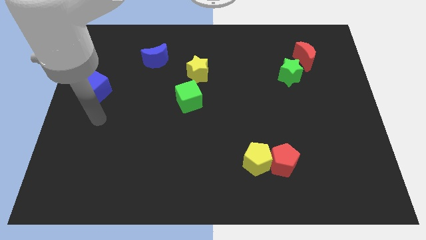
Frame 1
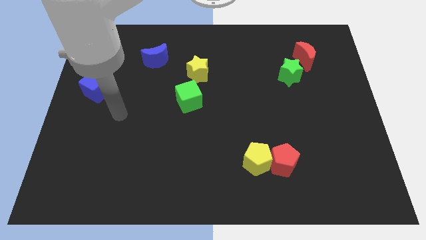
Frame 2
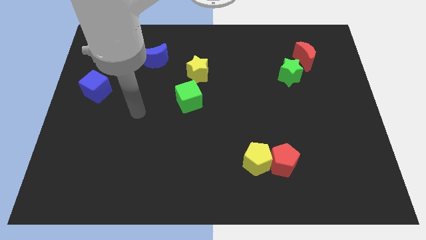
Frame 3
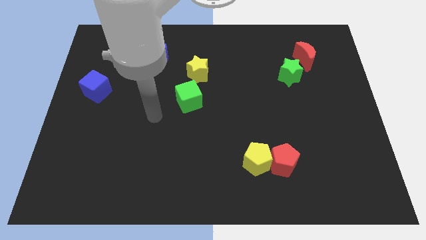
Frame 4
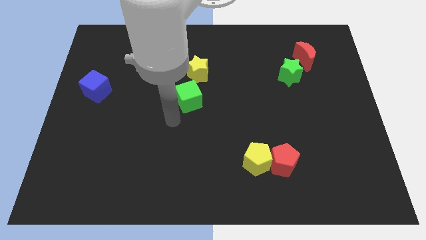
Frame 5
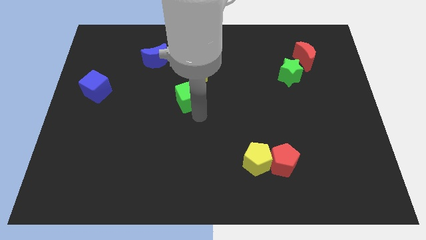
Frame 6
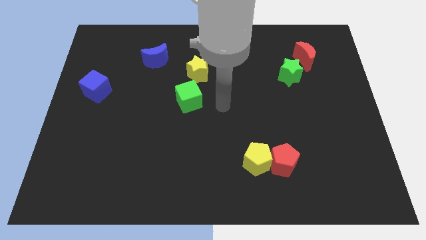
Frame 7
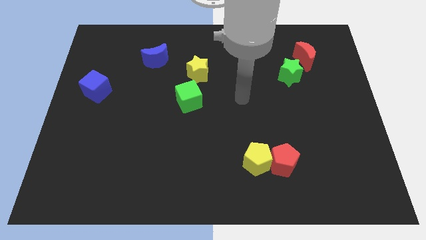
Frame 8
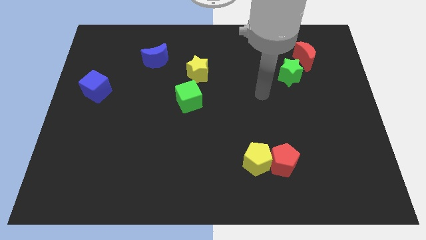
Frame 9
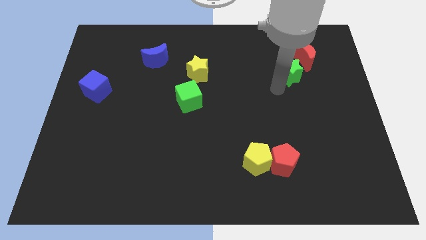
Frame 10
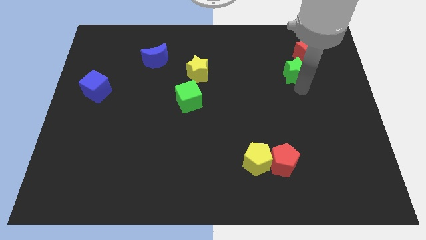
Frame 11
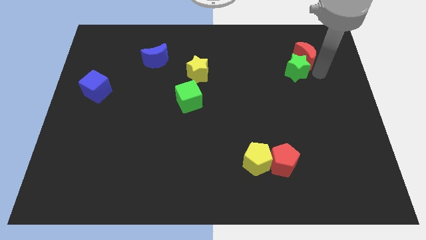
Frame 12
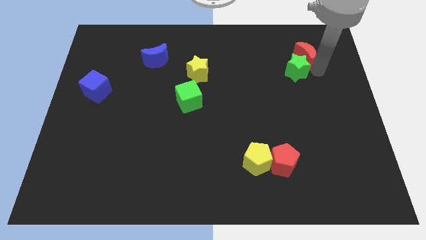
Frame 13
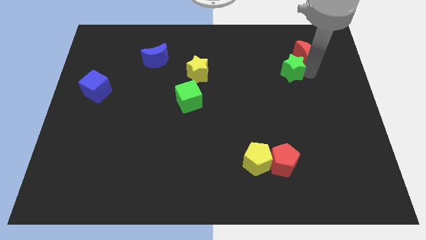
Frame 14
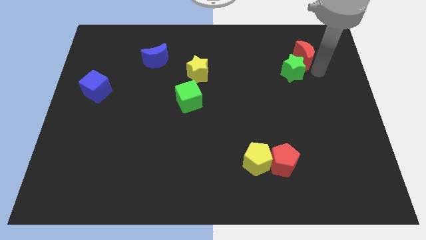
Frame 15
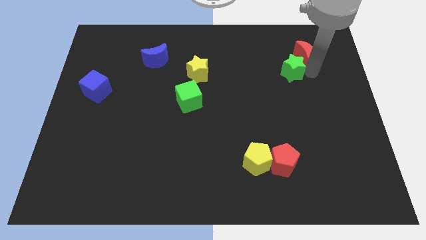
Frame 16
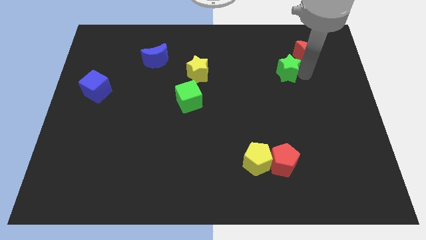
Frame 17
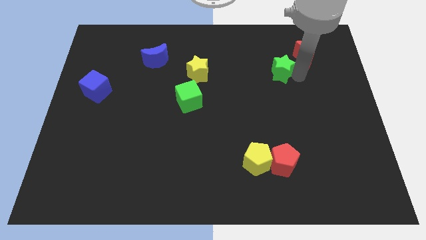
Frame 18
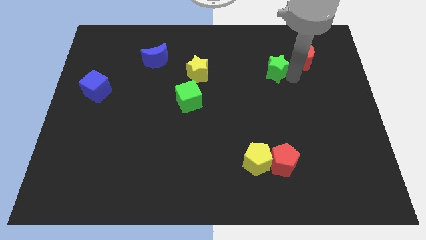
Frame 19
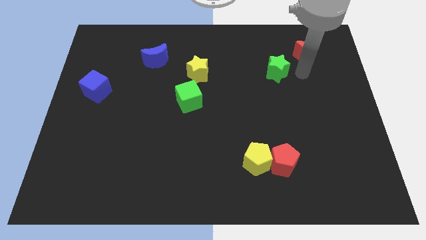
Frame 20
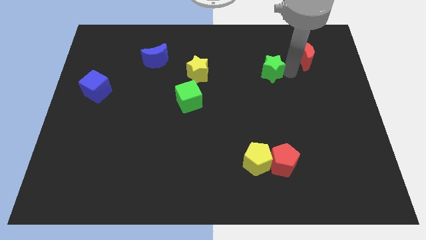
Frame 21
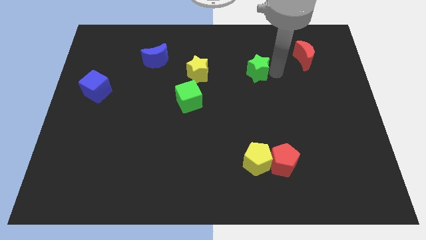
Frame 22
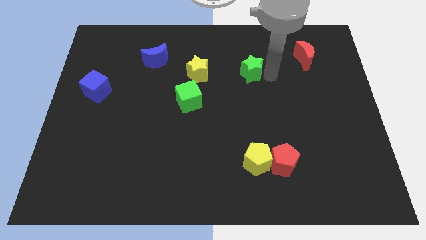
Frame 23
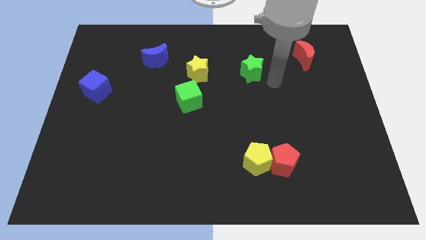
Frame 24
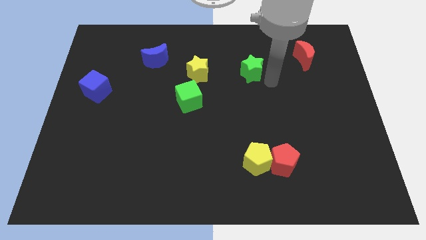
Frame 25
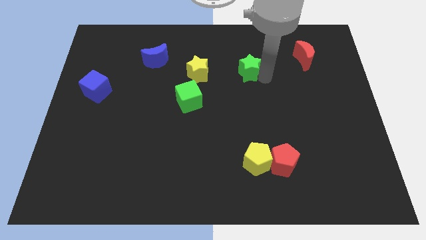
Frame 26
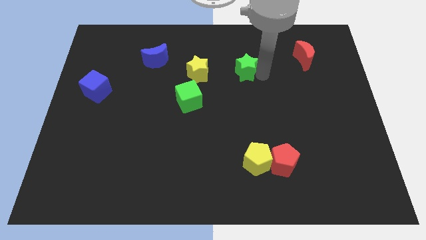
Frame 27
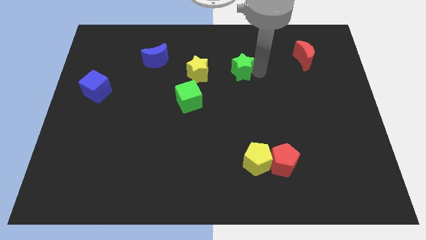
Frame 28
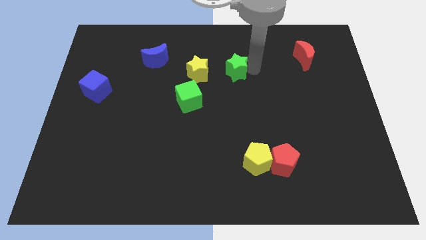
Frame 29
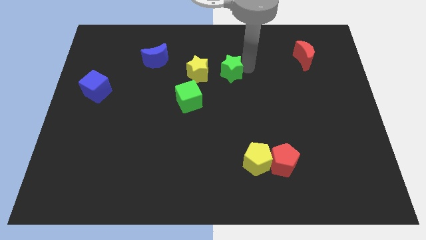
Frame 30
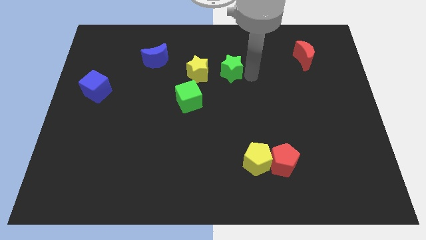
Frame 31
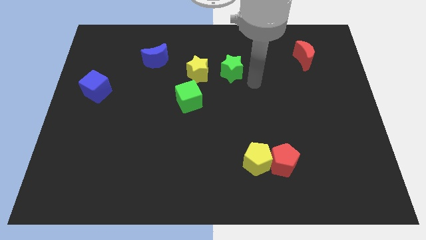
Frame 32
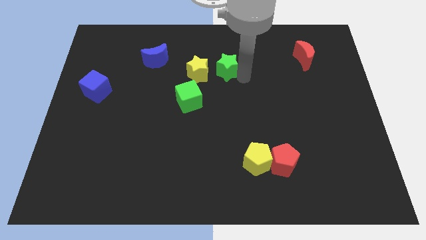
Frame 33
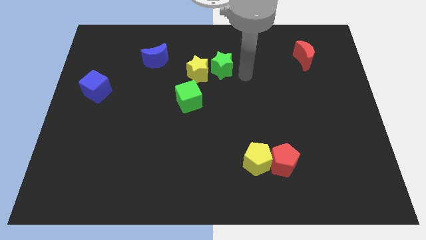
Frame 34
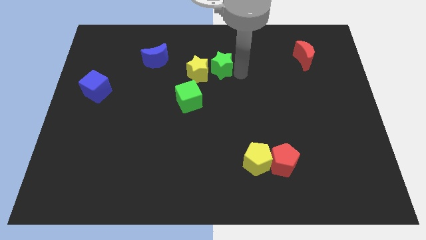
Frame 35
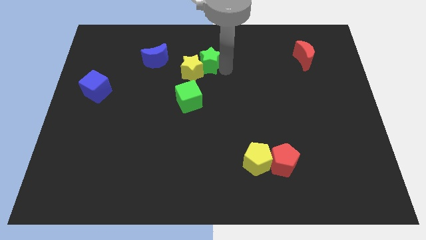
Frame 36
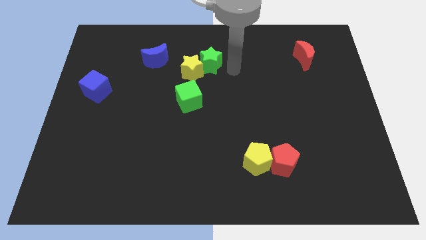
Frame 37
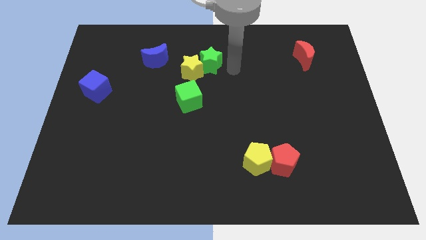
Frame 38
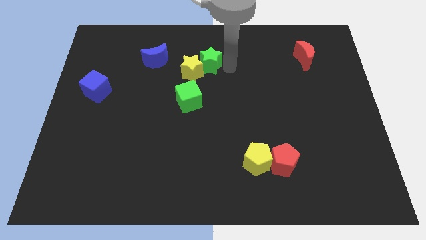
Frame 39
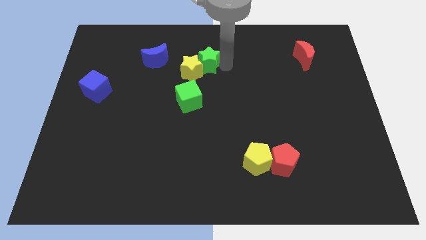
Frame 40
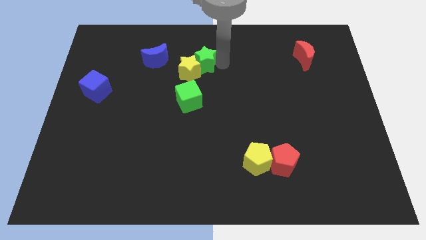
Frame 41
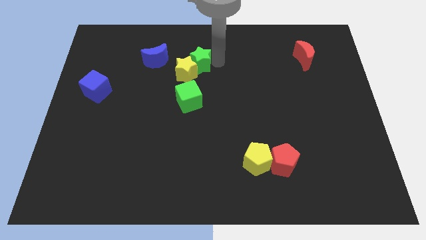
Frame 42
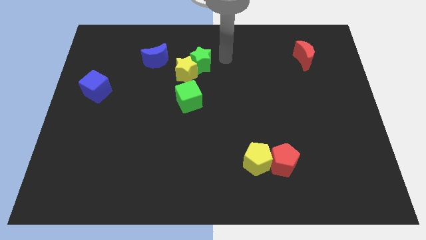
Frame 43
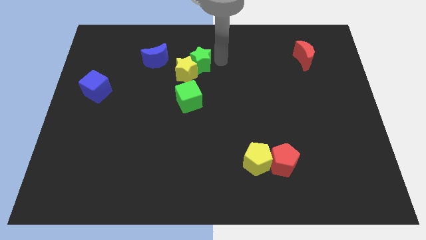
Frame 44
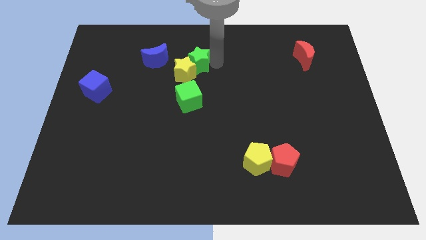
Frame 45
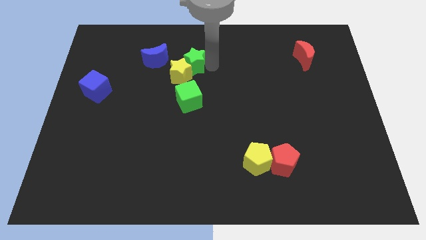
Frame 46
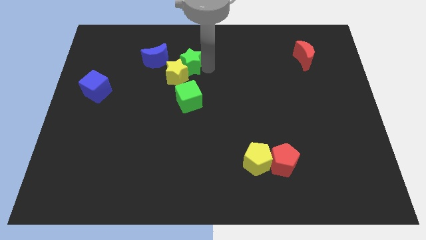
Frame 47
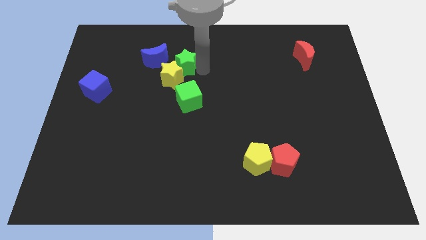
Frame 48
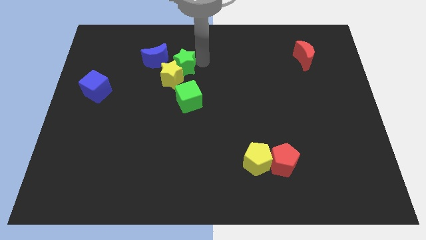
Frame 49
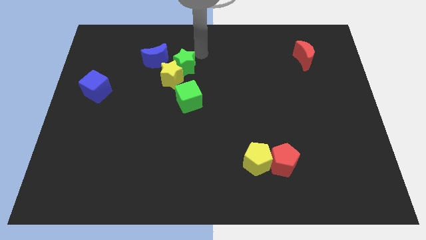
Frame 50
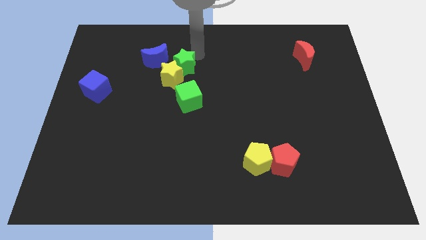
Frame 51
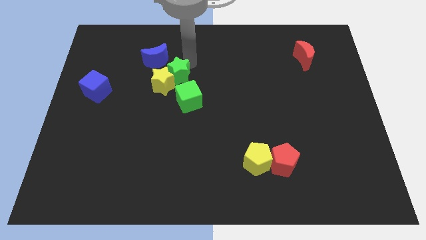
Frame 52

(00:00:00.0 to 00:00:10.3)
slide the green star diagonally up and to the left of the green cube

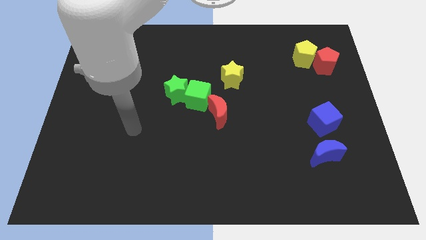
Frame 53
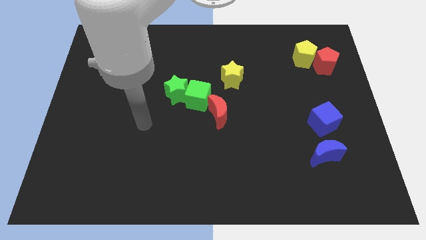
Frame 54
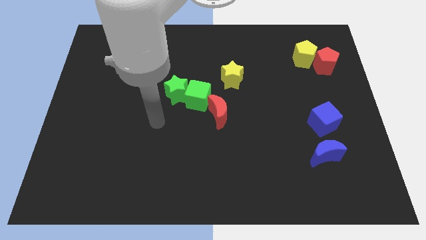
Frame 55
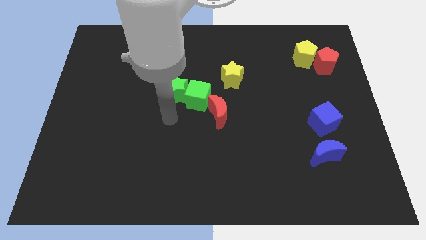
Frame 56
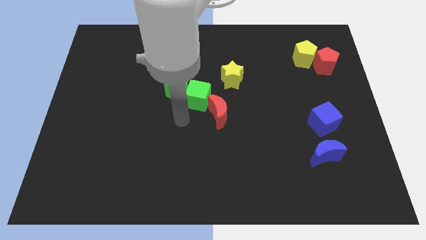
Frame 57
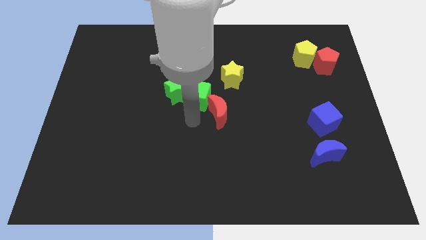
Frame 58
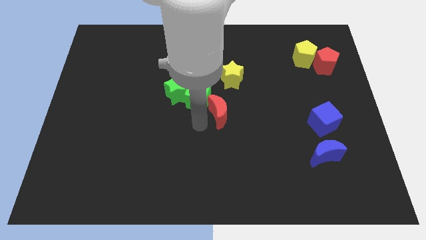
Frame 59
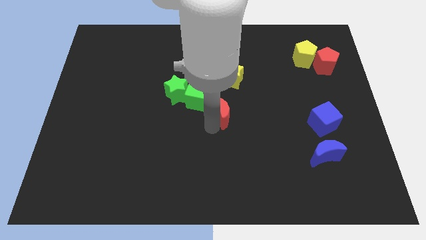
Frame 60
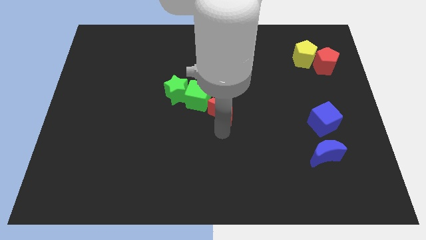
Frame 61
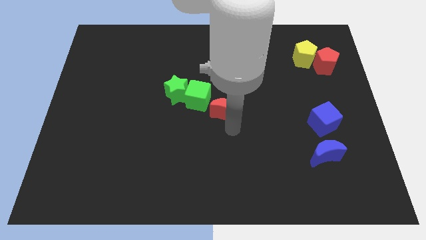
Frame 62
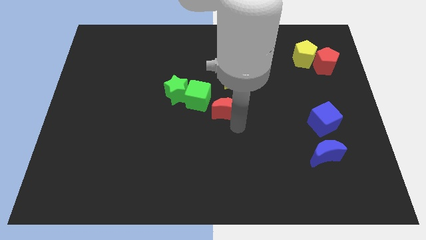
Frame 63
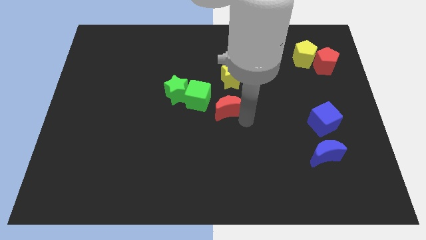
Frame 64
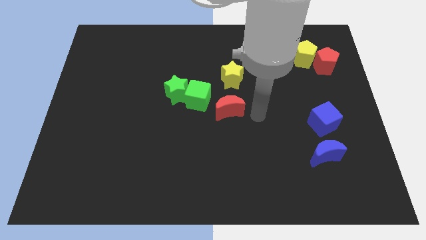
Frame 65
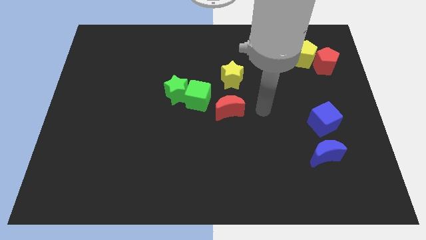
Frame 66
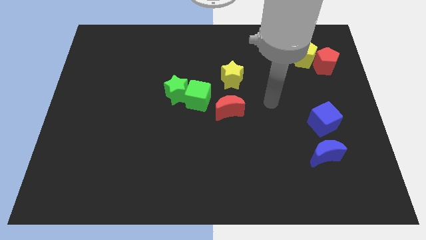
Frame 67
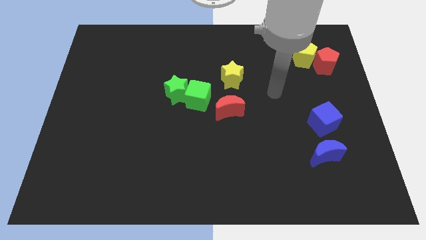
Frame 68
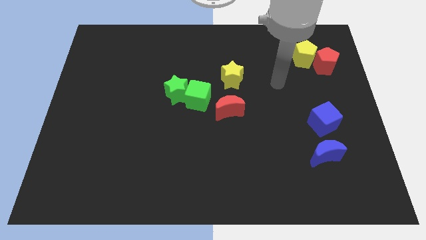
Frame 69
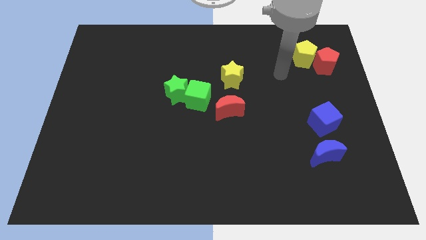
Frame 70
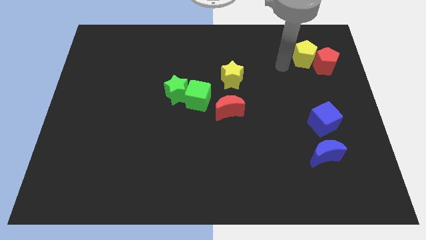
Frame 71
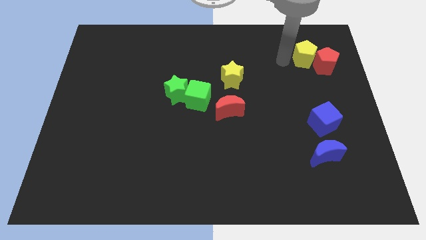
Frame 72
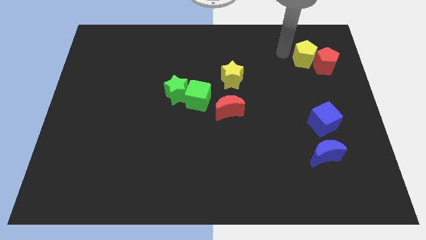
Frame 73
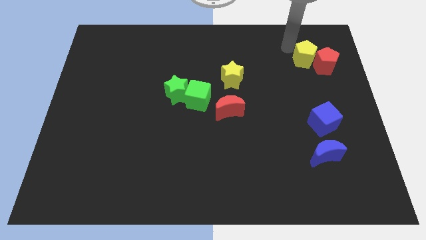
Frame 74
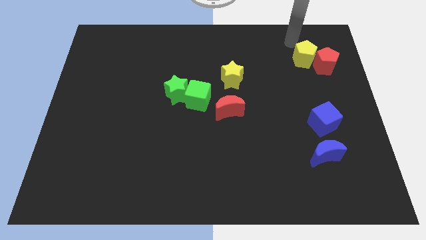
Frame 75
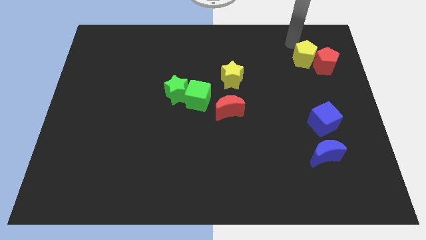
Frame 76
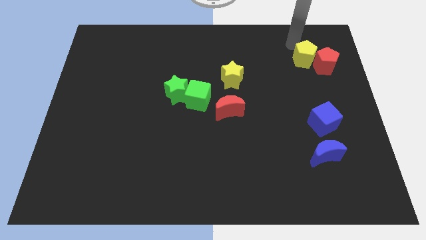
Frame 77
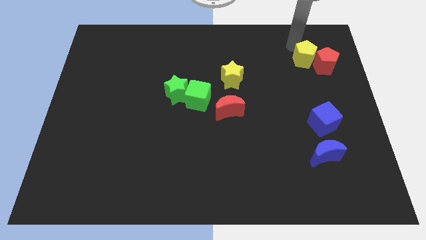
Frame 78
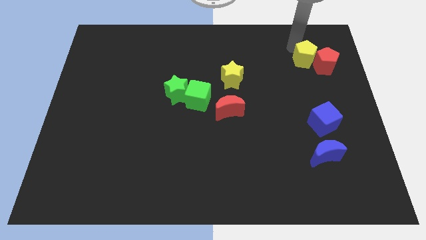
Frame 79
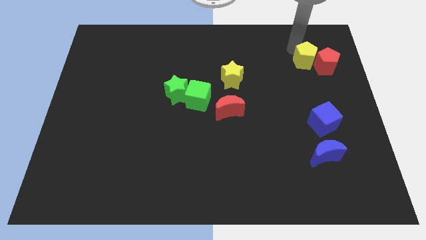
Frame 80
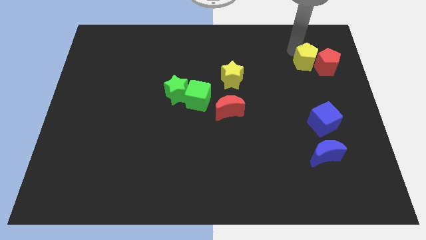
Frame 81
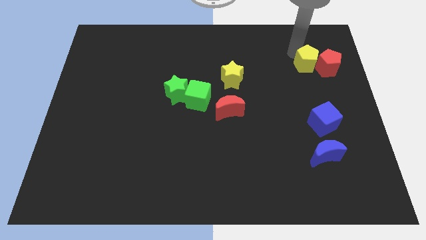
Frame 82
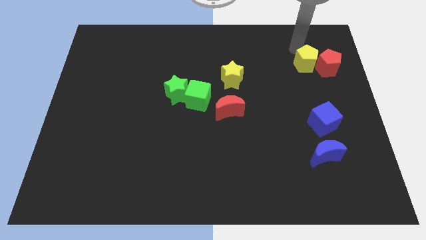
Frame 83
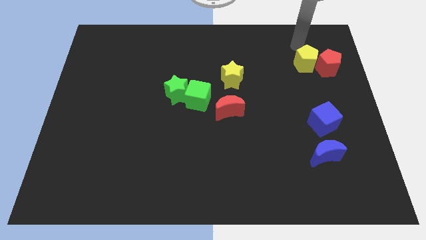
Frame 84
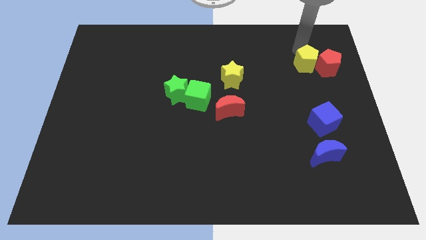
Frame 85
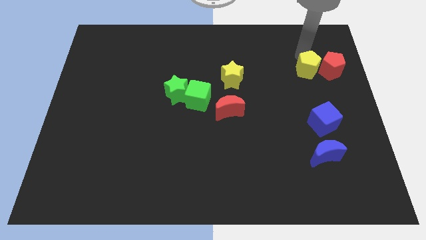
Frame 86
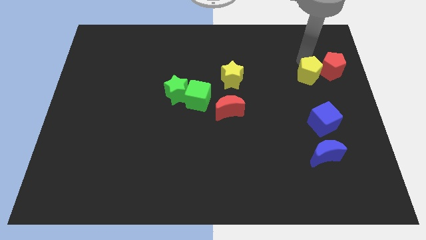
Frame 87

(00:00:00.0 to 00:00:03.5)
put the yellow pentagon above the blue cube
